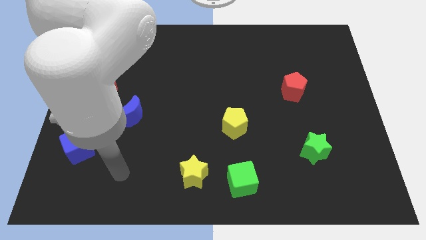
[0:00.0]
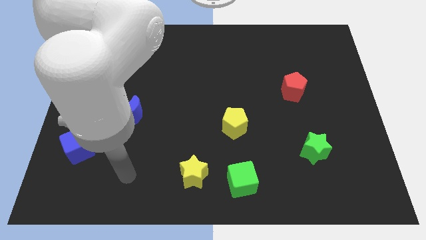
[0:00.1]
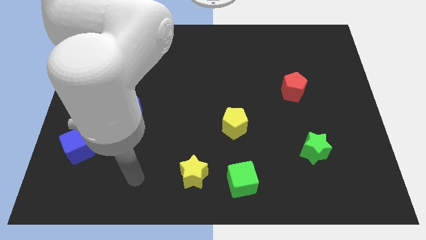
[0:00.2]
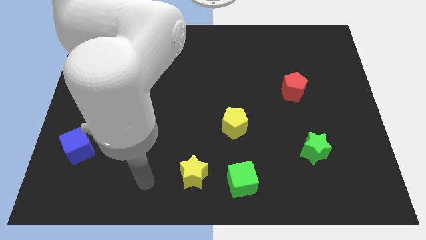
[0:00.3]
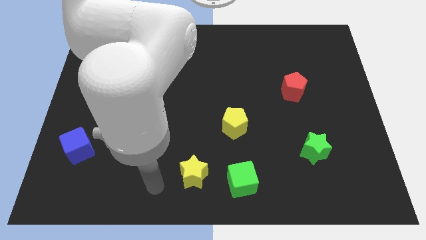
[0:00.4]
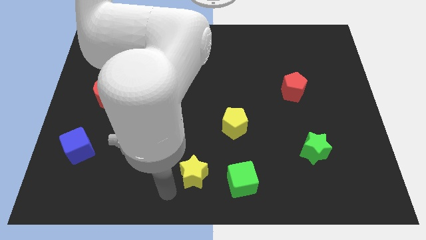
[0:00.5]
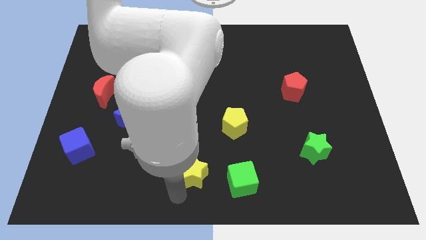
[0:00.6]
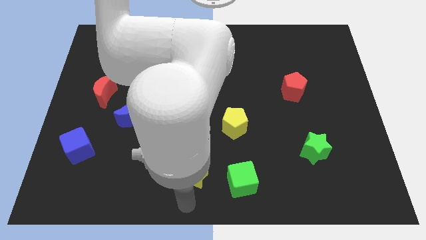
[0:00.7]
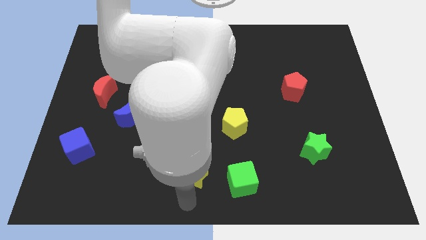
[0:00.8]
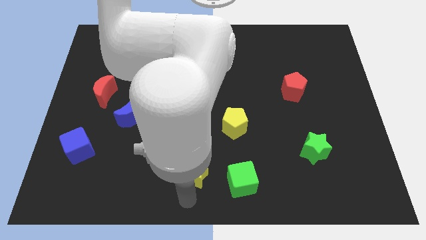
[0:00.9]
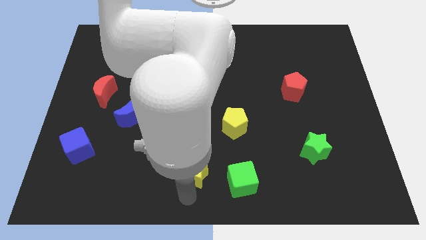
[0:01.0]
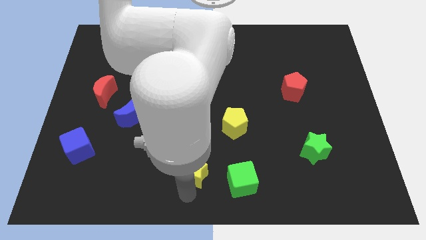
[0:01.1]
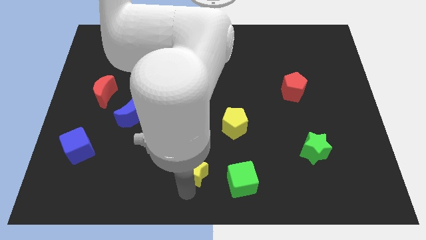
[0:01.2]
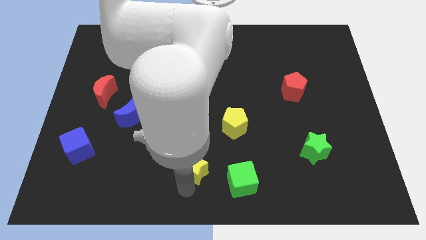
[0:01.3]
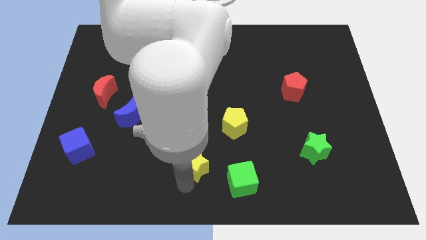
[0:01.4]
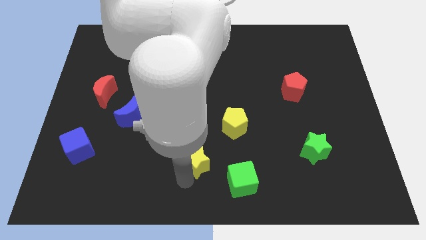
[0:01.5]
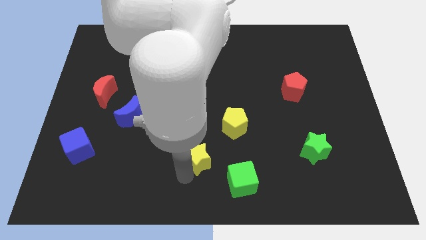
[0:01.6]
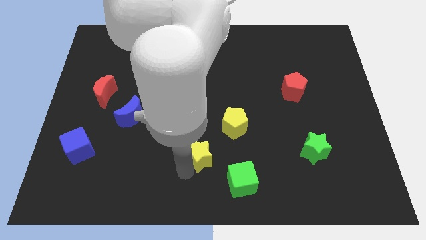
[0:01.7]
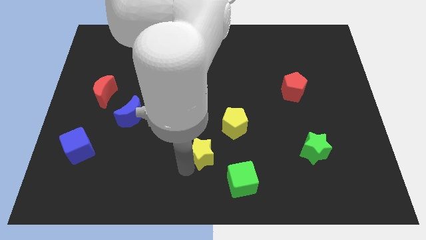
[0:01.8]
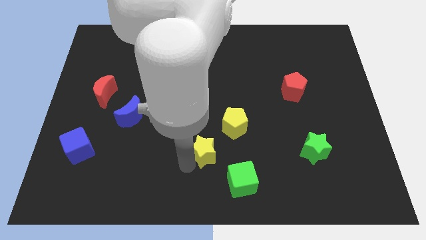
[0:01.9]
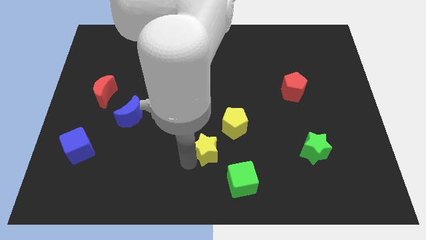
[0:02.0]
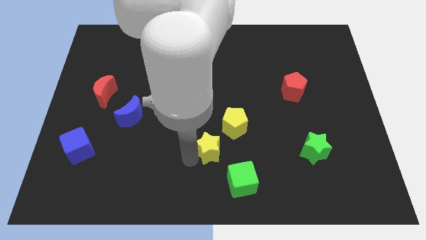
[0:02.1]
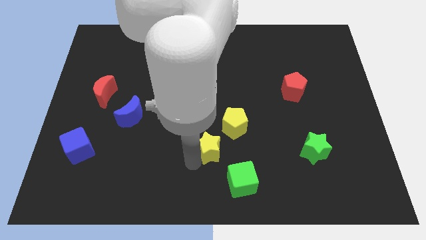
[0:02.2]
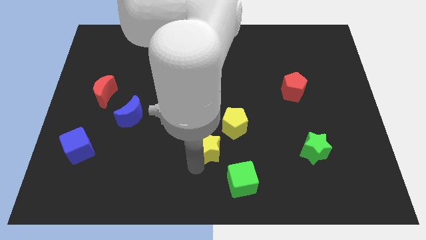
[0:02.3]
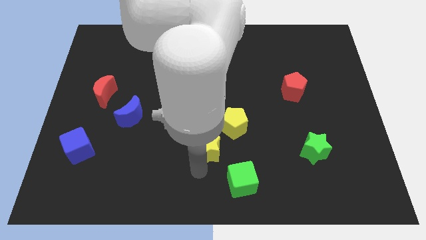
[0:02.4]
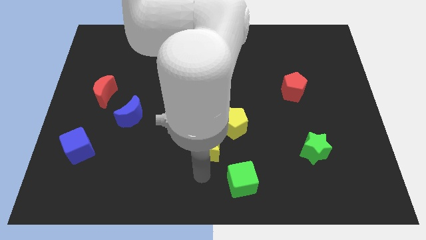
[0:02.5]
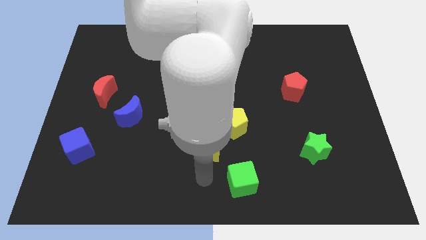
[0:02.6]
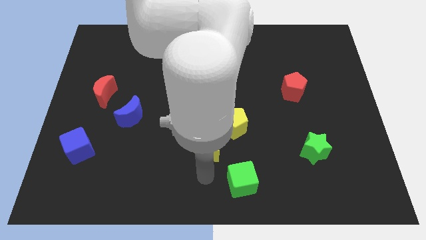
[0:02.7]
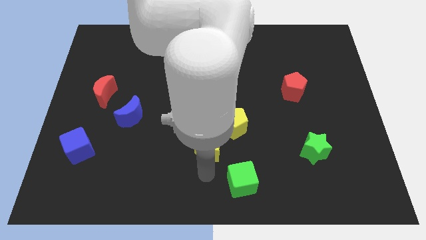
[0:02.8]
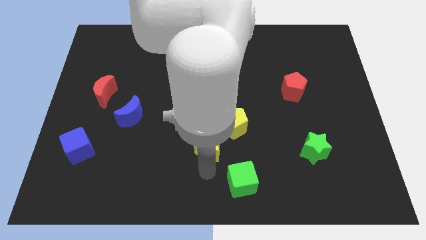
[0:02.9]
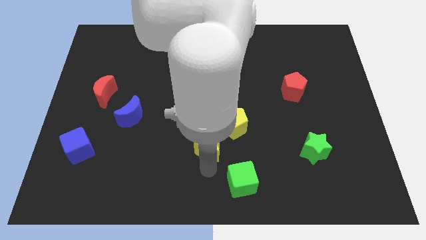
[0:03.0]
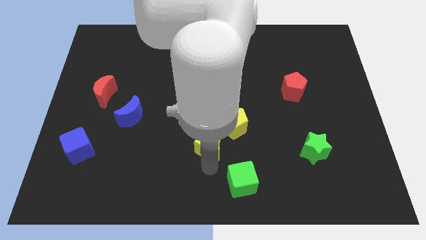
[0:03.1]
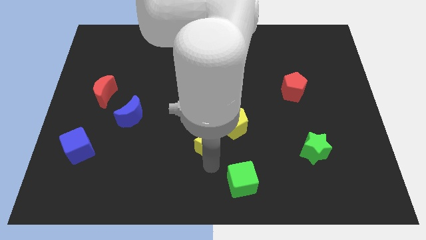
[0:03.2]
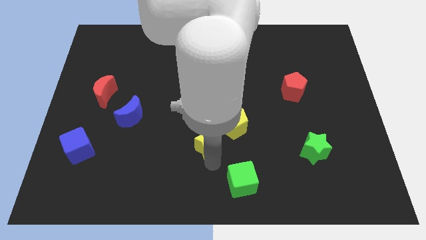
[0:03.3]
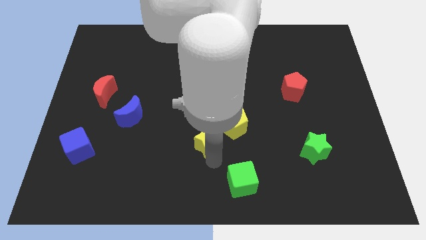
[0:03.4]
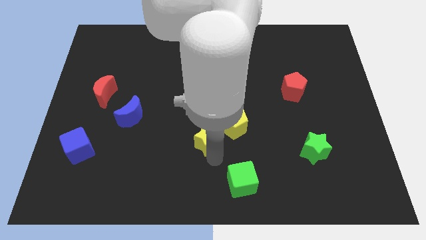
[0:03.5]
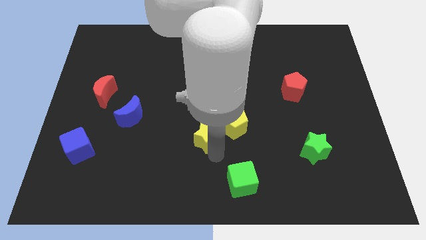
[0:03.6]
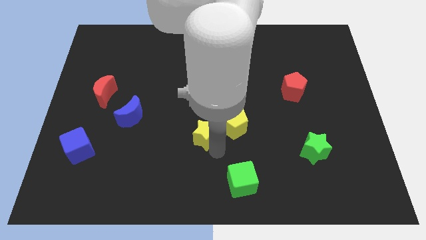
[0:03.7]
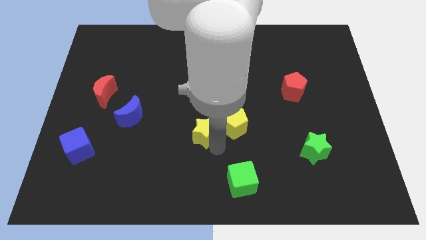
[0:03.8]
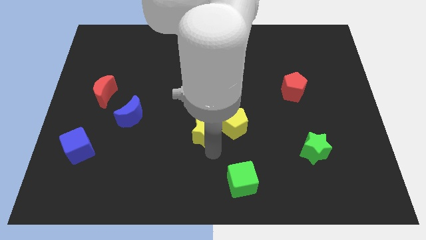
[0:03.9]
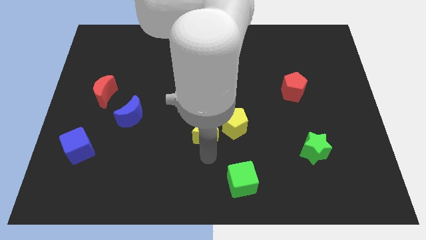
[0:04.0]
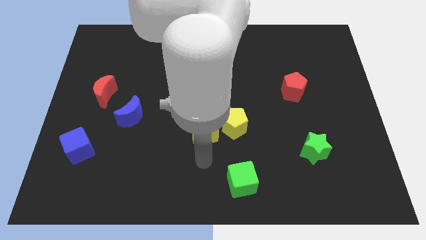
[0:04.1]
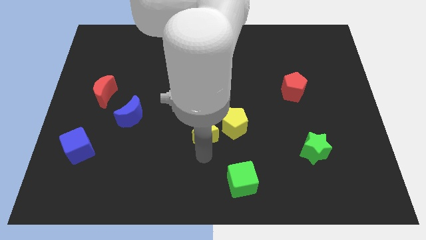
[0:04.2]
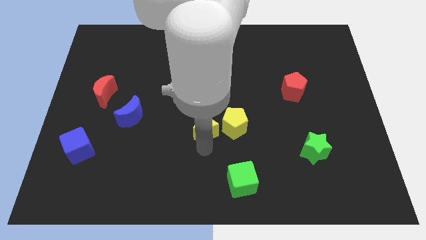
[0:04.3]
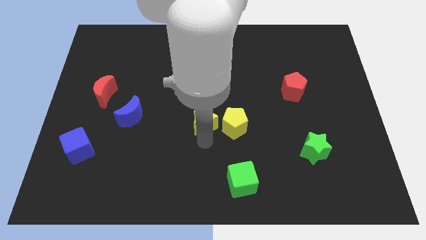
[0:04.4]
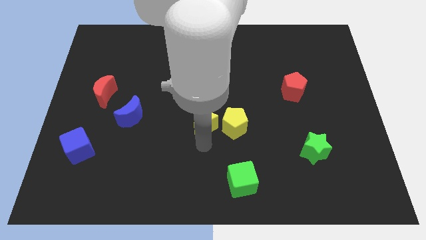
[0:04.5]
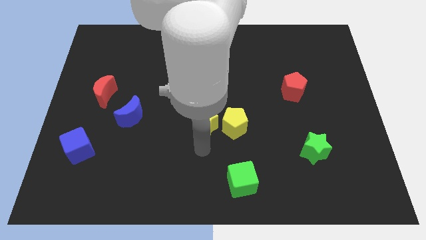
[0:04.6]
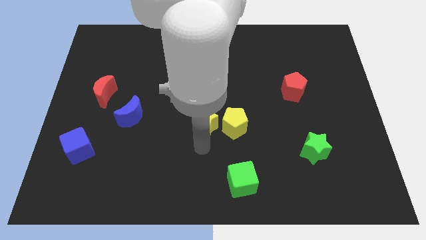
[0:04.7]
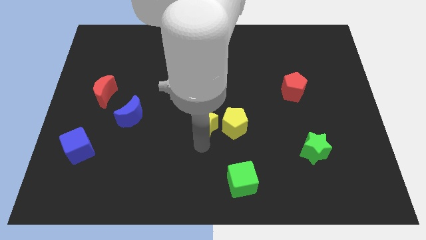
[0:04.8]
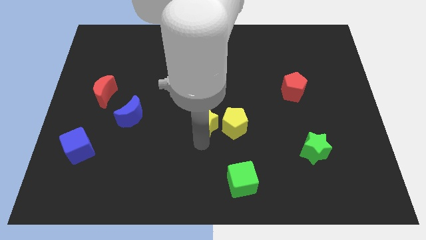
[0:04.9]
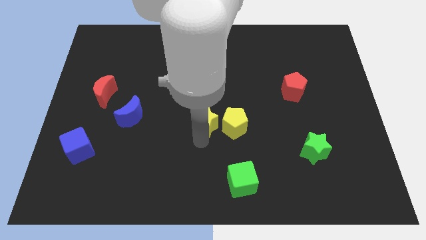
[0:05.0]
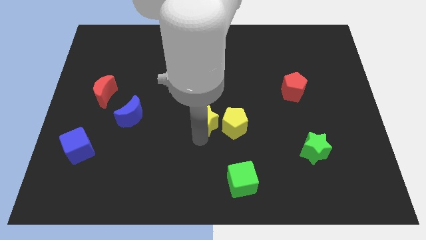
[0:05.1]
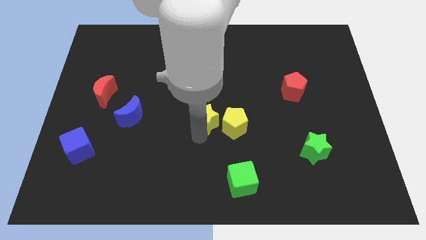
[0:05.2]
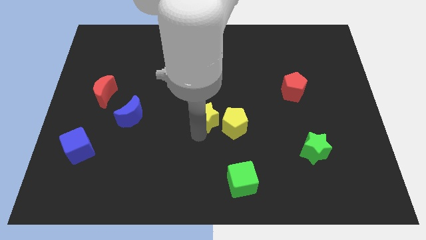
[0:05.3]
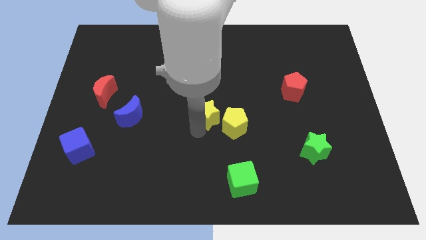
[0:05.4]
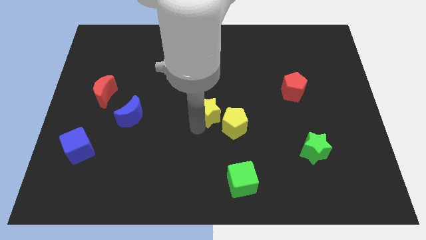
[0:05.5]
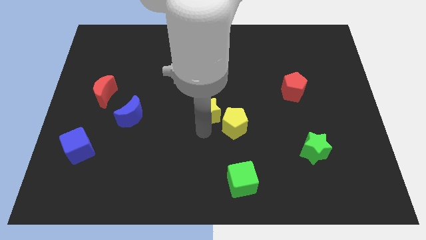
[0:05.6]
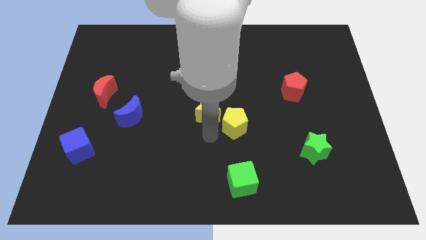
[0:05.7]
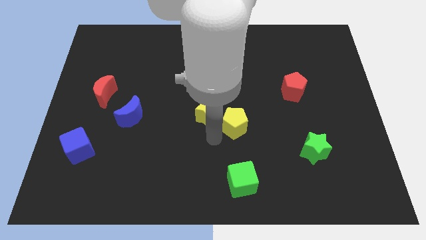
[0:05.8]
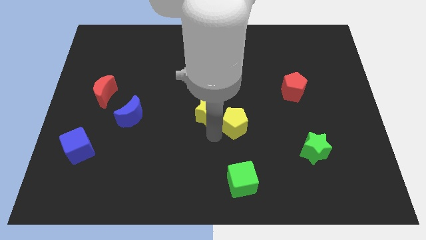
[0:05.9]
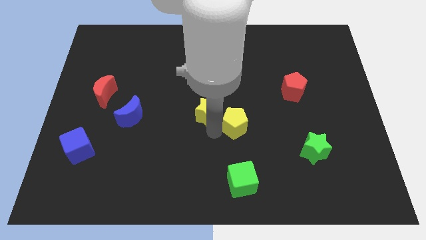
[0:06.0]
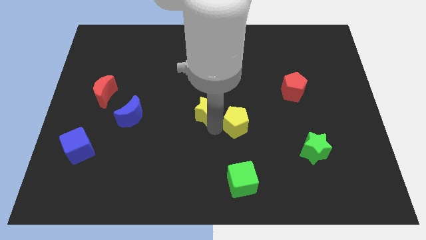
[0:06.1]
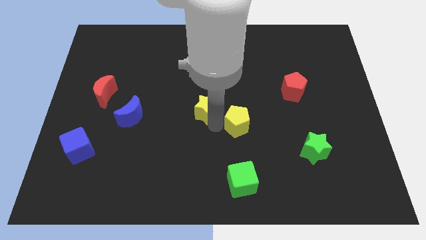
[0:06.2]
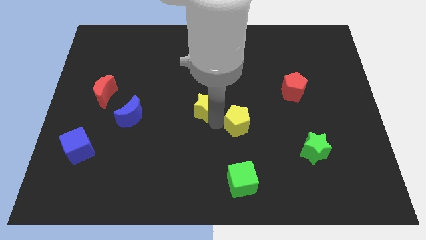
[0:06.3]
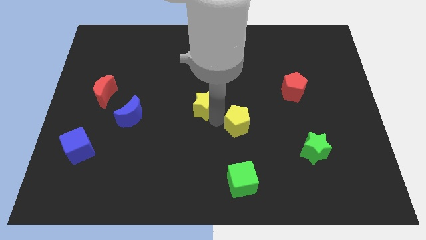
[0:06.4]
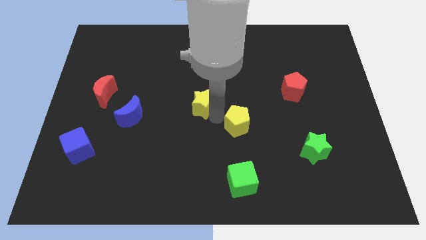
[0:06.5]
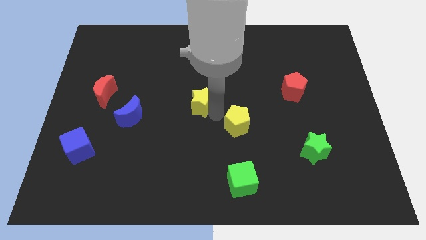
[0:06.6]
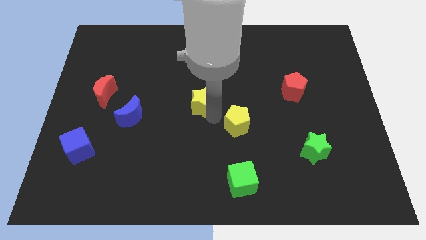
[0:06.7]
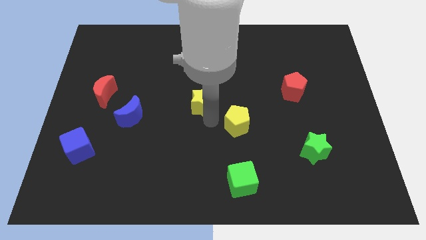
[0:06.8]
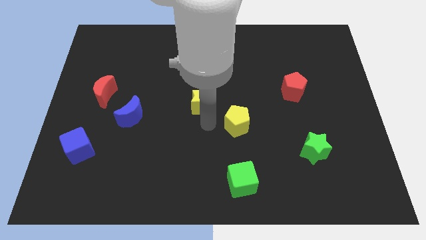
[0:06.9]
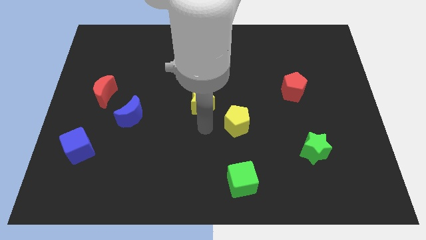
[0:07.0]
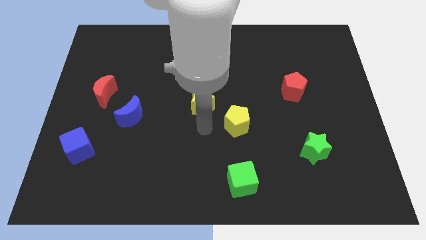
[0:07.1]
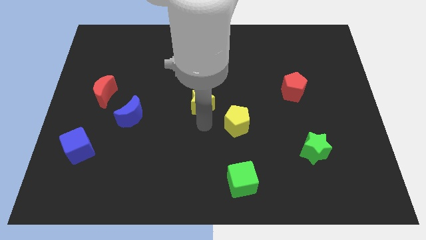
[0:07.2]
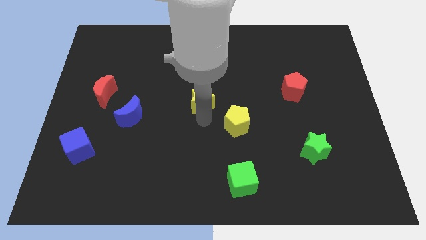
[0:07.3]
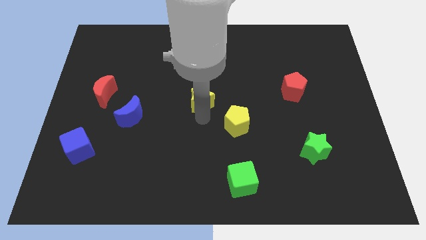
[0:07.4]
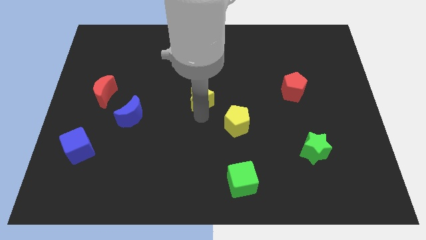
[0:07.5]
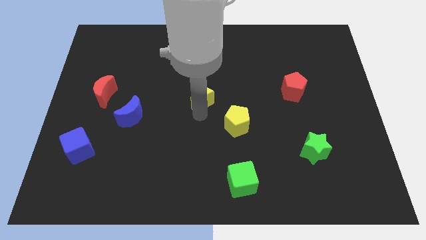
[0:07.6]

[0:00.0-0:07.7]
move the yellow star upwards
